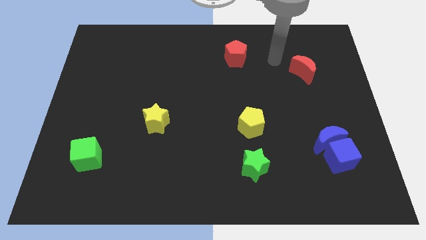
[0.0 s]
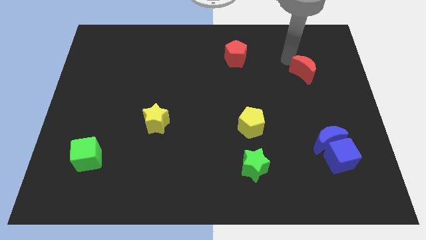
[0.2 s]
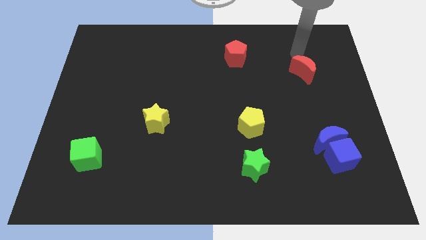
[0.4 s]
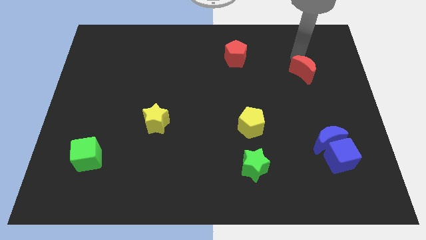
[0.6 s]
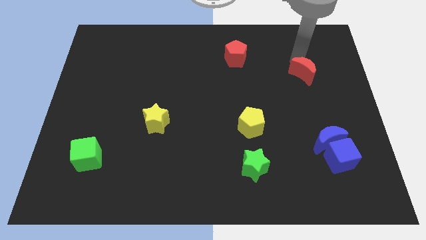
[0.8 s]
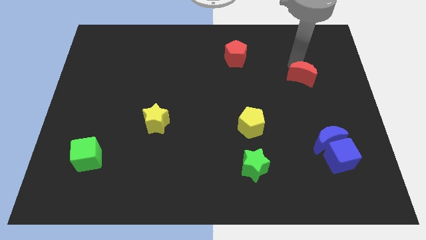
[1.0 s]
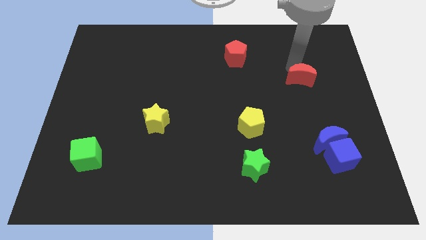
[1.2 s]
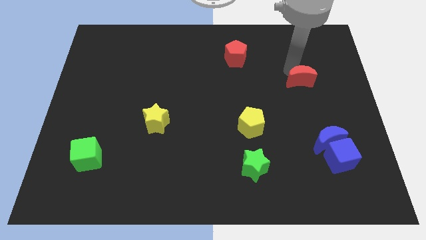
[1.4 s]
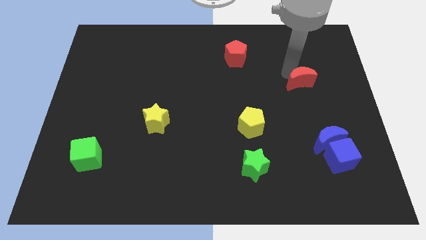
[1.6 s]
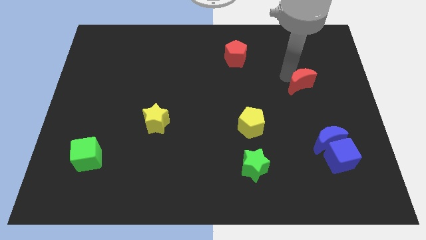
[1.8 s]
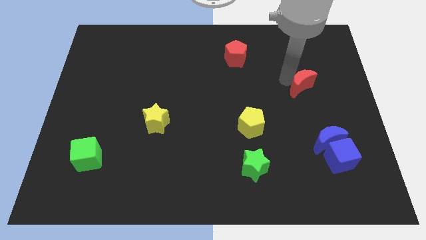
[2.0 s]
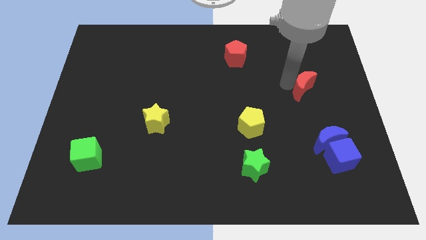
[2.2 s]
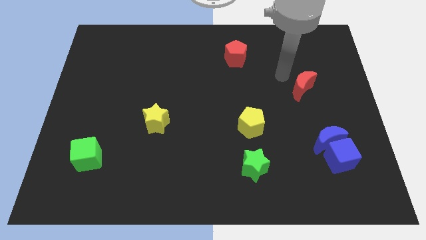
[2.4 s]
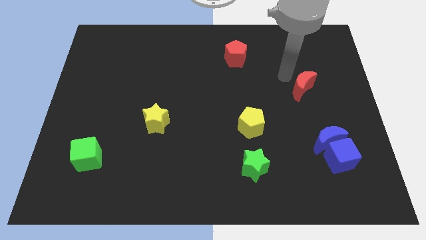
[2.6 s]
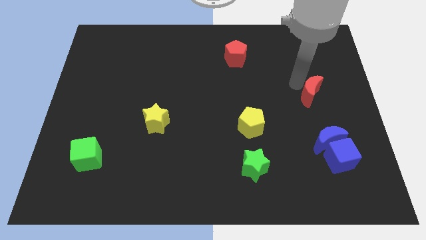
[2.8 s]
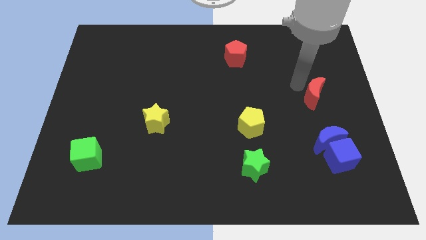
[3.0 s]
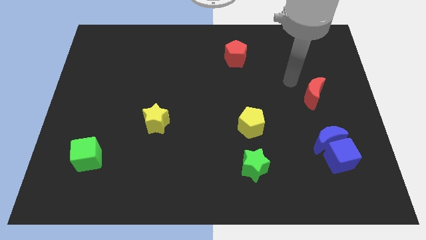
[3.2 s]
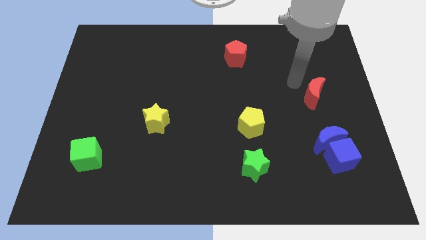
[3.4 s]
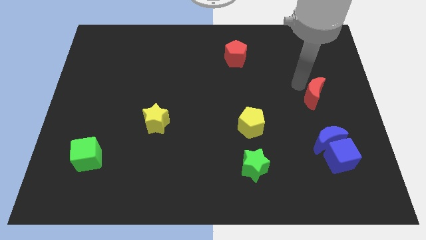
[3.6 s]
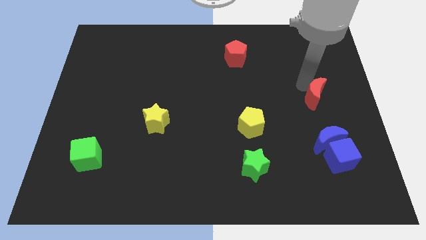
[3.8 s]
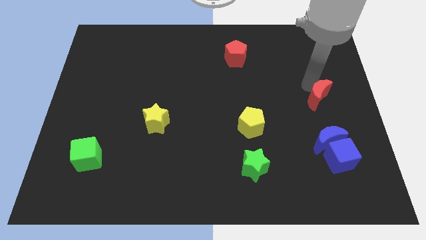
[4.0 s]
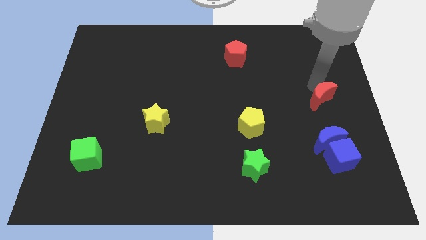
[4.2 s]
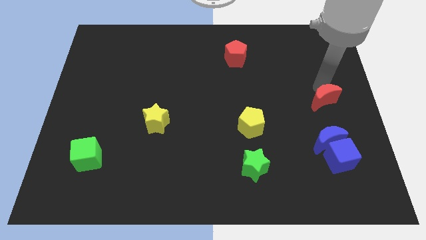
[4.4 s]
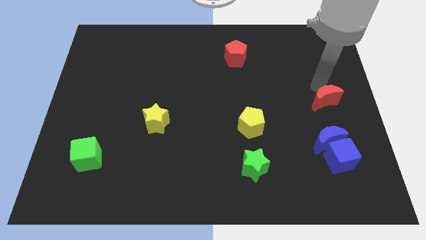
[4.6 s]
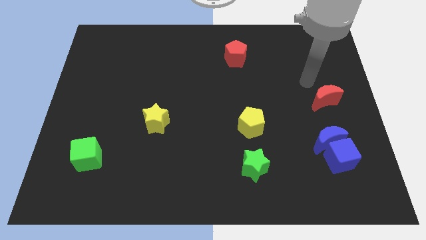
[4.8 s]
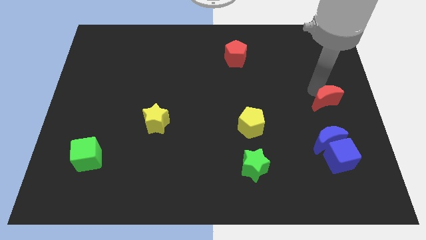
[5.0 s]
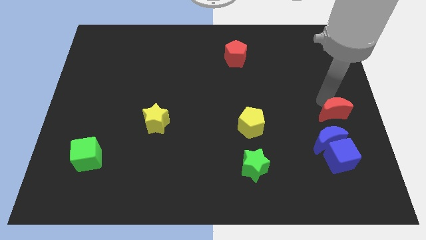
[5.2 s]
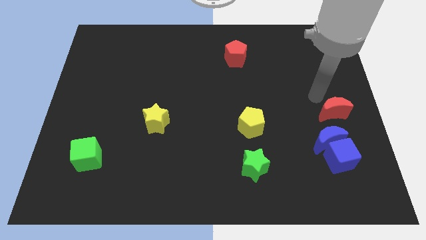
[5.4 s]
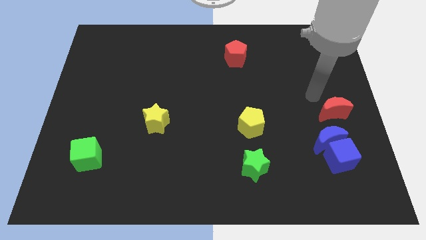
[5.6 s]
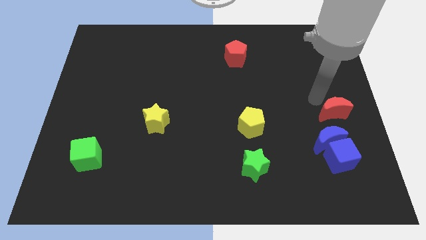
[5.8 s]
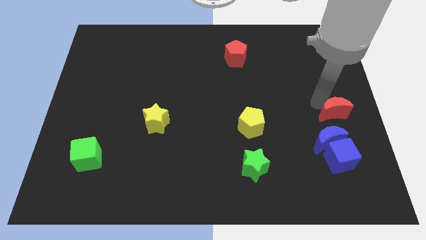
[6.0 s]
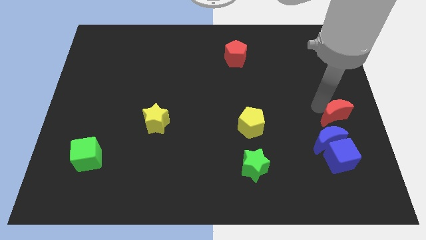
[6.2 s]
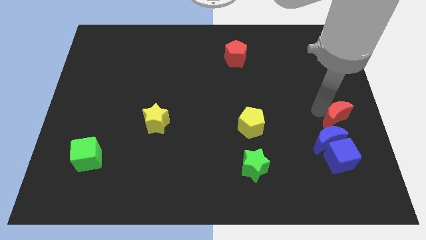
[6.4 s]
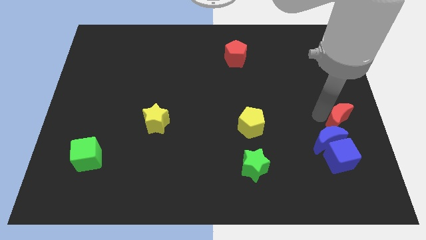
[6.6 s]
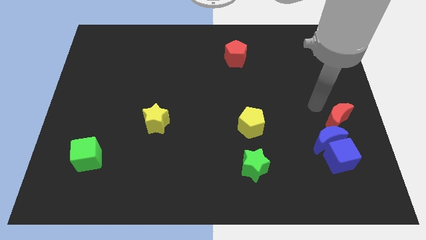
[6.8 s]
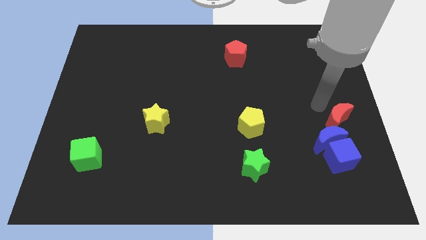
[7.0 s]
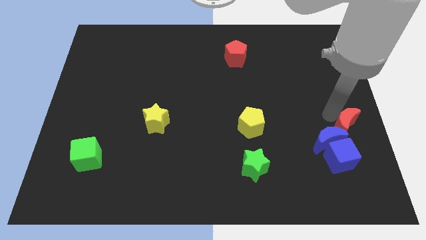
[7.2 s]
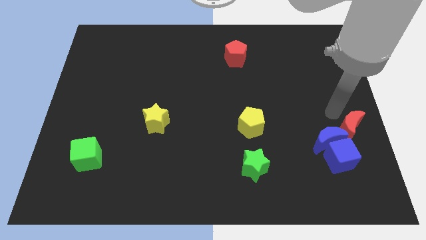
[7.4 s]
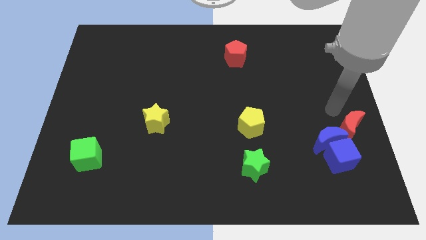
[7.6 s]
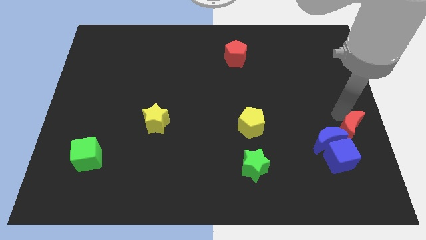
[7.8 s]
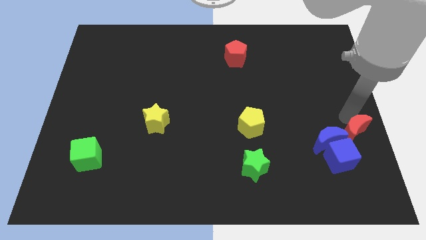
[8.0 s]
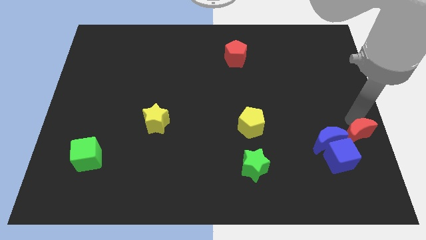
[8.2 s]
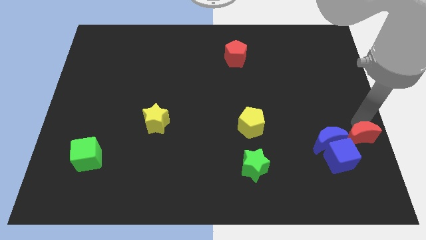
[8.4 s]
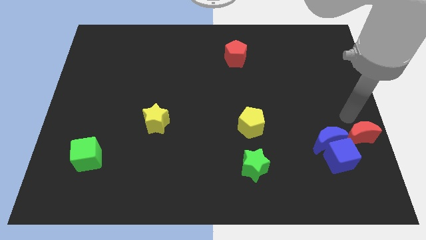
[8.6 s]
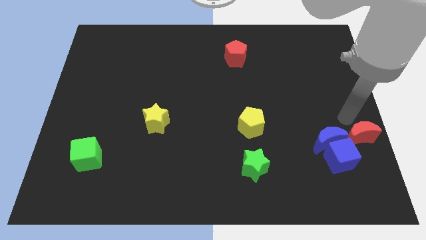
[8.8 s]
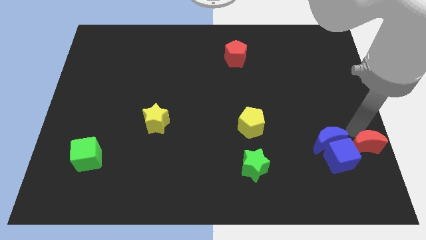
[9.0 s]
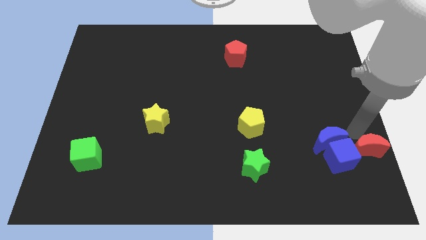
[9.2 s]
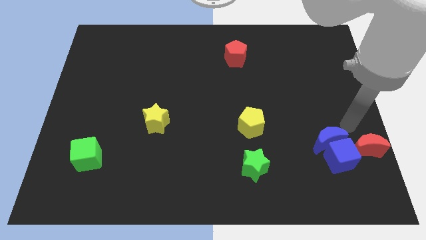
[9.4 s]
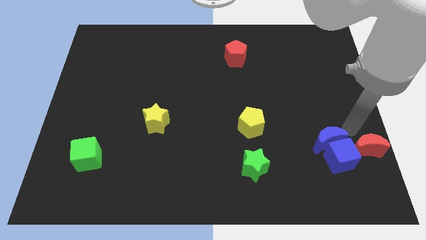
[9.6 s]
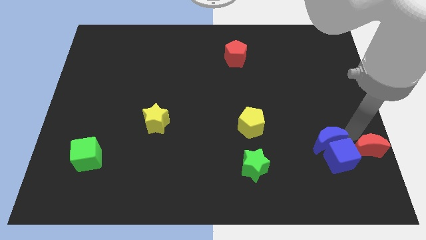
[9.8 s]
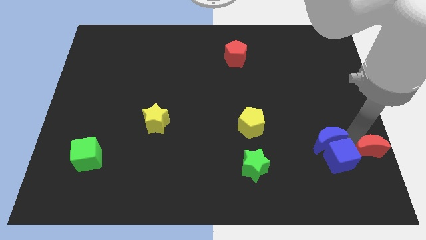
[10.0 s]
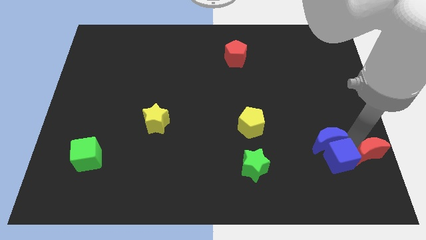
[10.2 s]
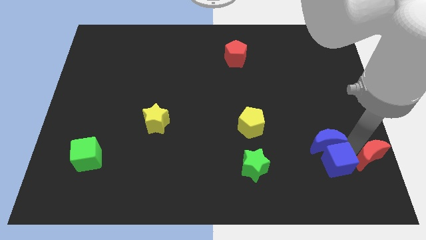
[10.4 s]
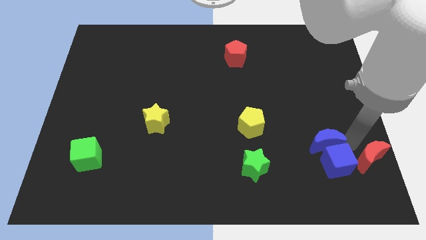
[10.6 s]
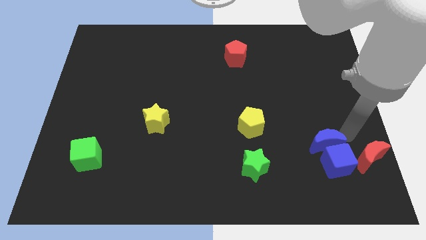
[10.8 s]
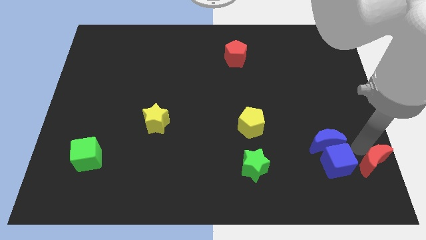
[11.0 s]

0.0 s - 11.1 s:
move the red moon to the bottom right
